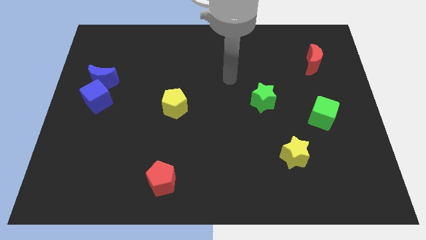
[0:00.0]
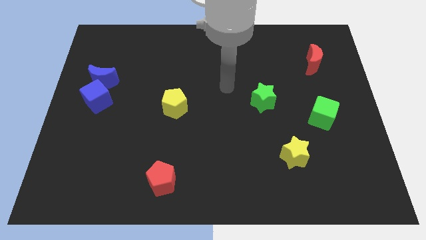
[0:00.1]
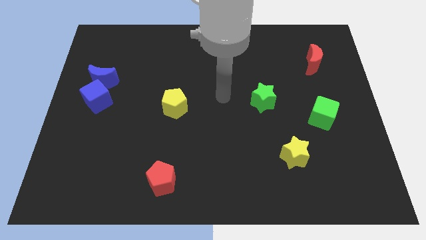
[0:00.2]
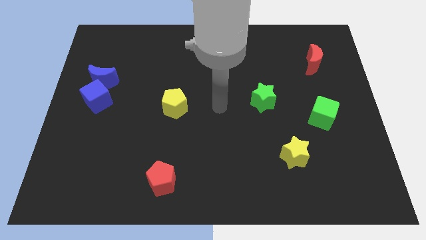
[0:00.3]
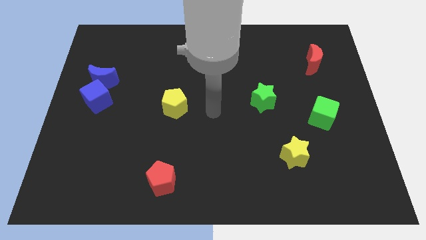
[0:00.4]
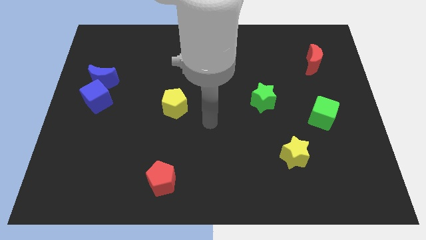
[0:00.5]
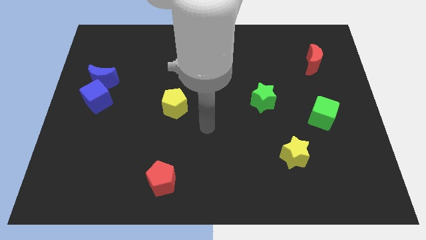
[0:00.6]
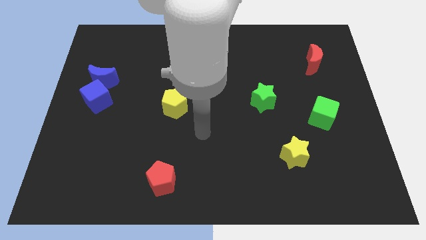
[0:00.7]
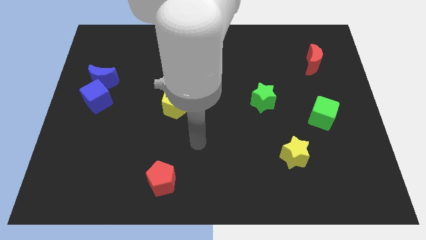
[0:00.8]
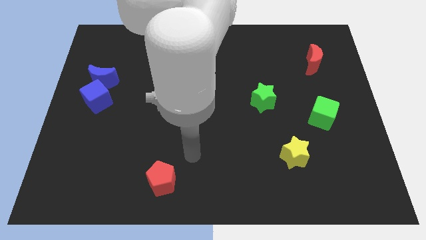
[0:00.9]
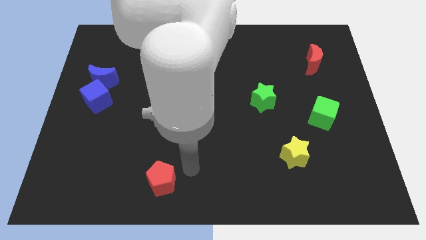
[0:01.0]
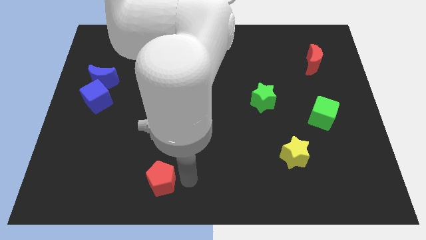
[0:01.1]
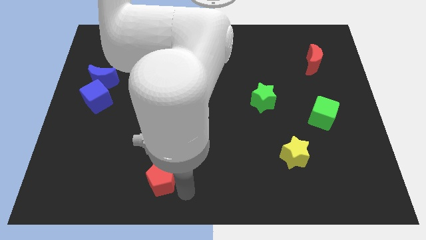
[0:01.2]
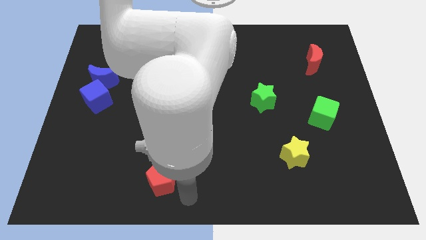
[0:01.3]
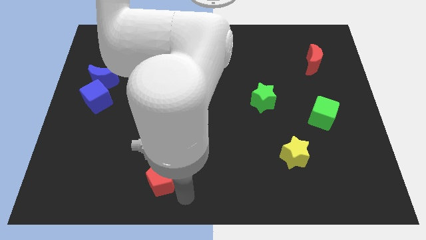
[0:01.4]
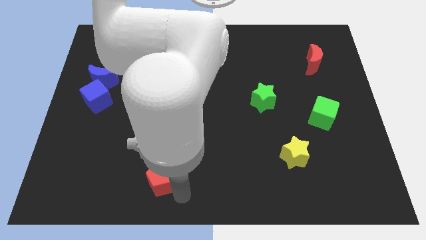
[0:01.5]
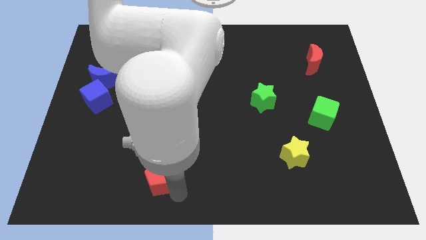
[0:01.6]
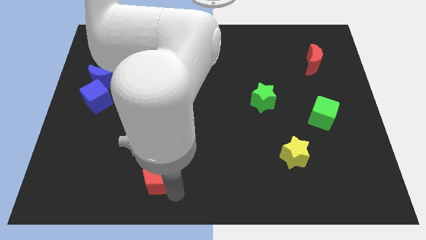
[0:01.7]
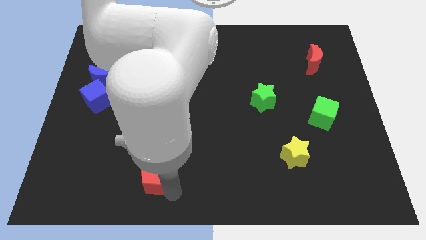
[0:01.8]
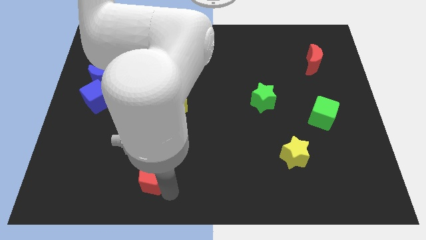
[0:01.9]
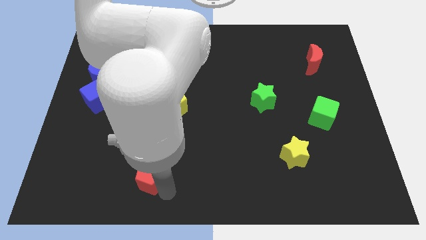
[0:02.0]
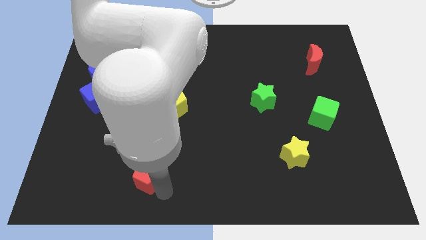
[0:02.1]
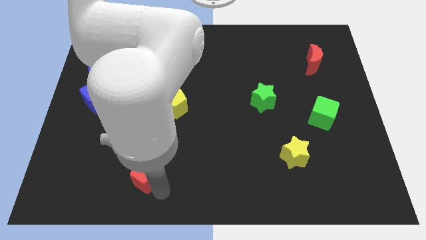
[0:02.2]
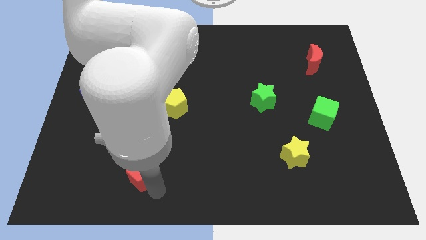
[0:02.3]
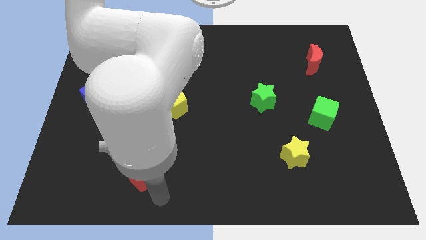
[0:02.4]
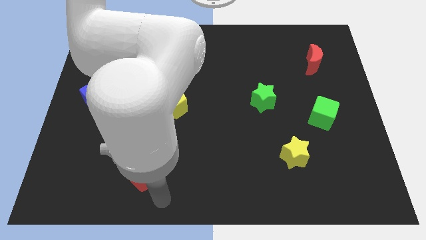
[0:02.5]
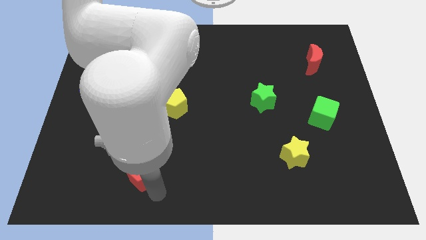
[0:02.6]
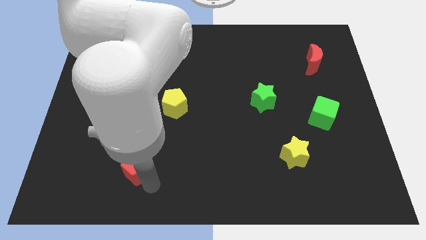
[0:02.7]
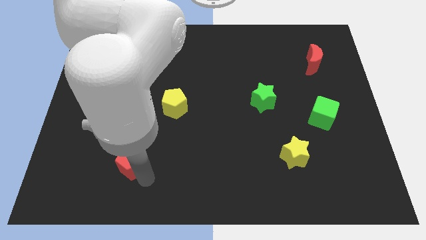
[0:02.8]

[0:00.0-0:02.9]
slide the red pentagon slightly upwards and then to the left

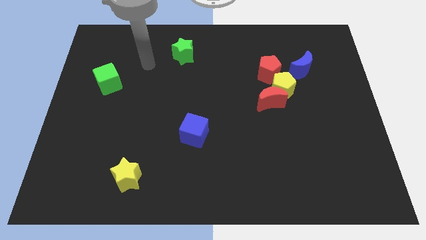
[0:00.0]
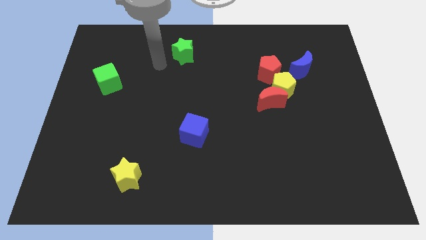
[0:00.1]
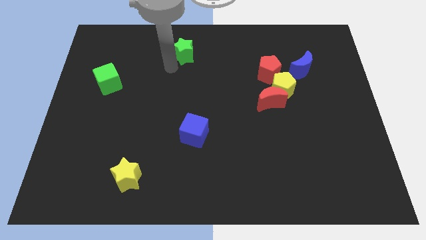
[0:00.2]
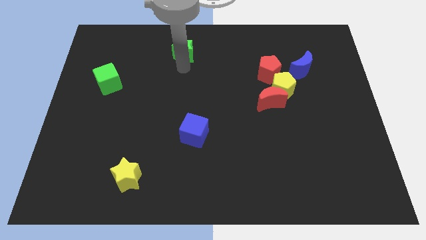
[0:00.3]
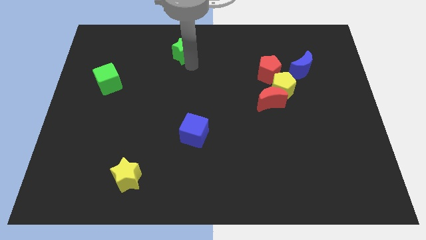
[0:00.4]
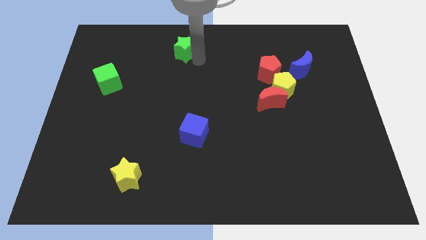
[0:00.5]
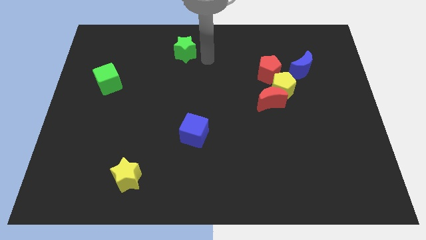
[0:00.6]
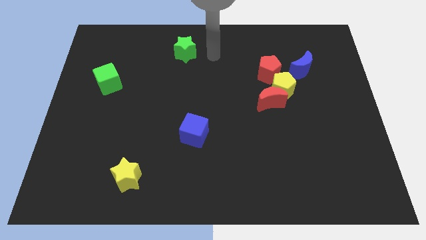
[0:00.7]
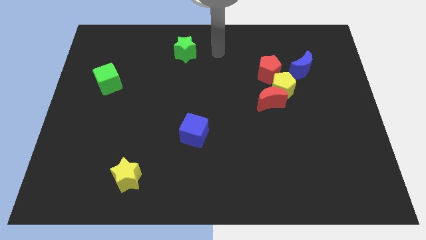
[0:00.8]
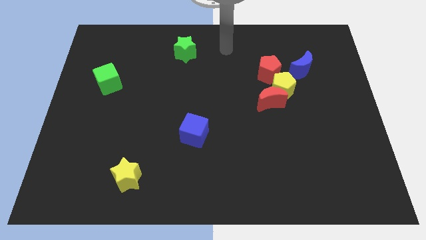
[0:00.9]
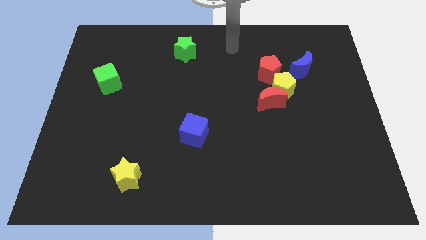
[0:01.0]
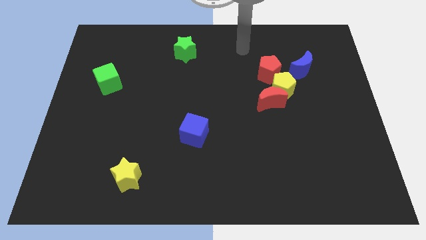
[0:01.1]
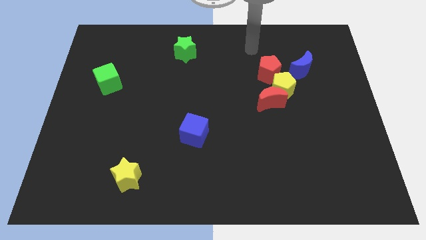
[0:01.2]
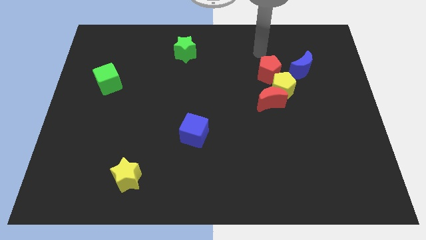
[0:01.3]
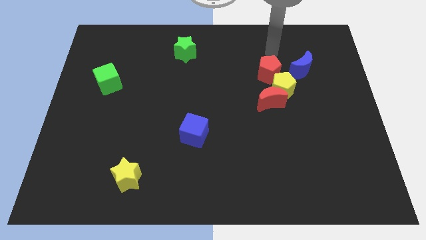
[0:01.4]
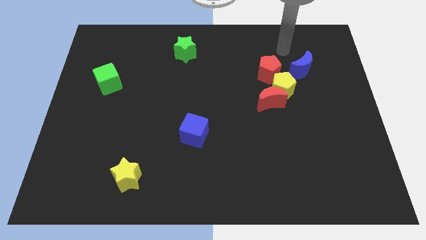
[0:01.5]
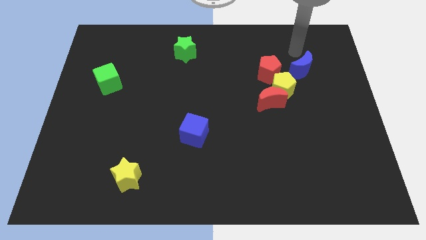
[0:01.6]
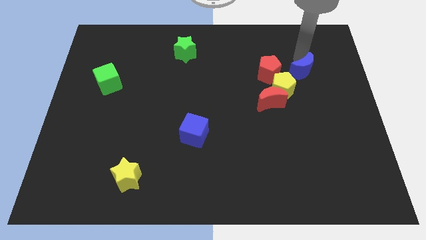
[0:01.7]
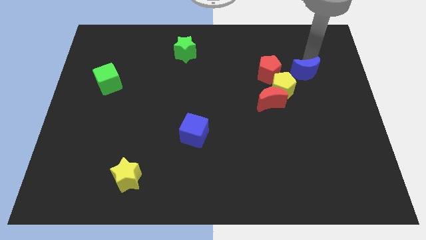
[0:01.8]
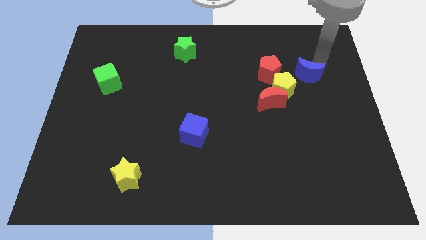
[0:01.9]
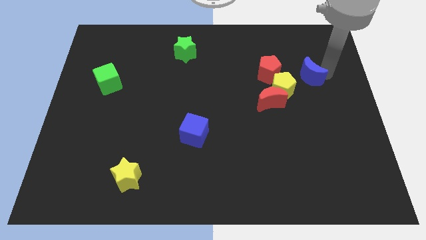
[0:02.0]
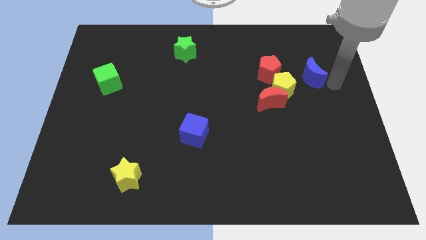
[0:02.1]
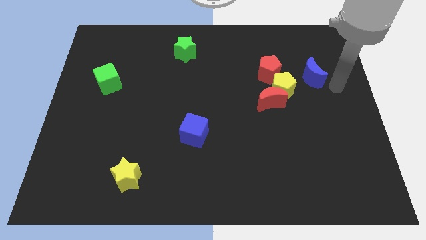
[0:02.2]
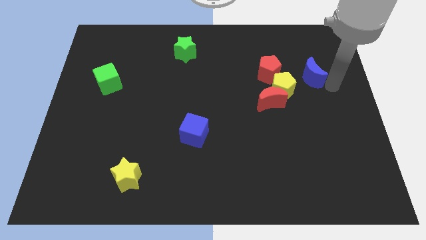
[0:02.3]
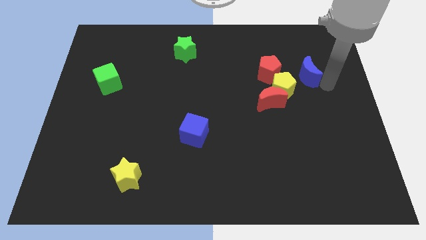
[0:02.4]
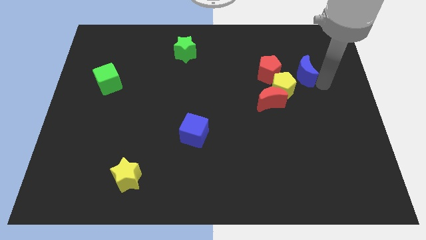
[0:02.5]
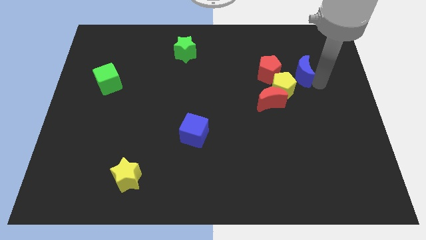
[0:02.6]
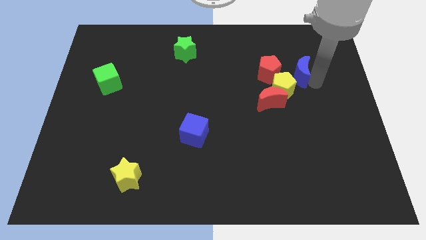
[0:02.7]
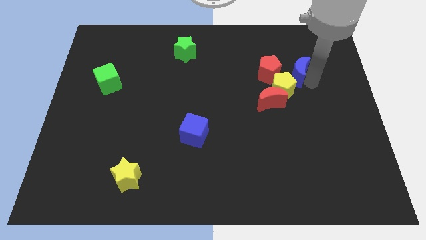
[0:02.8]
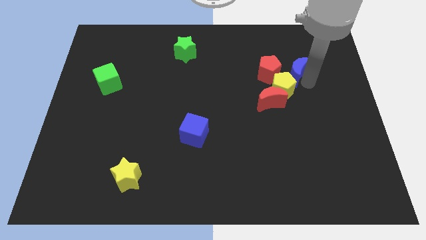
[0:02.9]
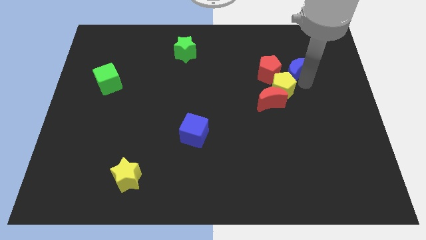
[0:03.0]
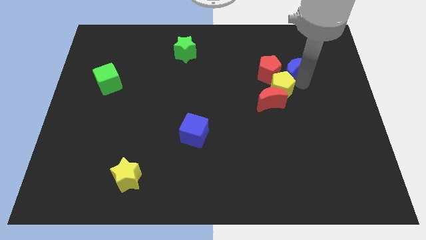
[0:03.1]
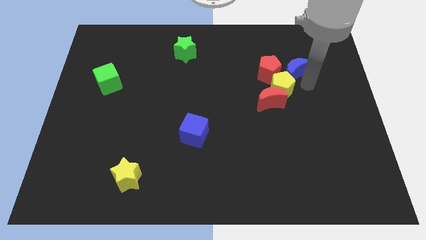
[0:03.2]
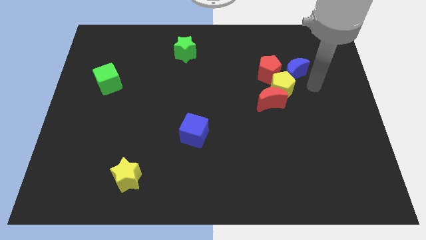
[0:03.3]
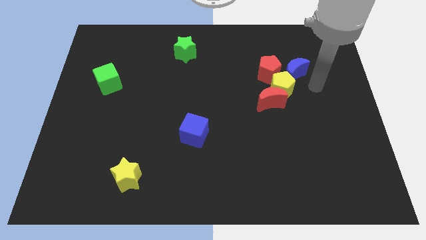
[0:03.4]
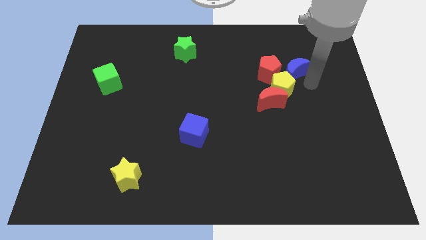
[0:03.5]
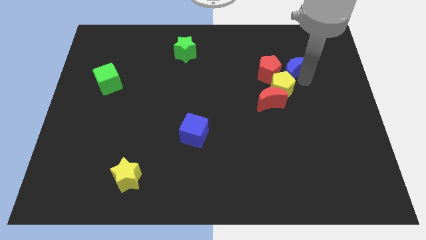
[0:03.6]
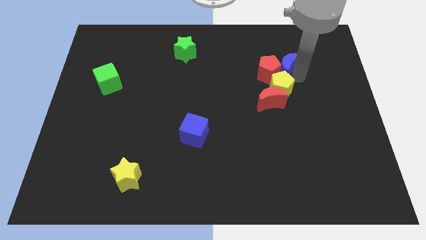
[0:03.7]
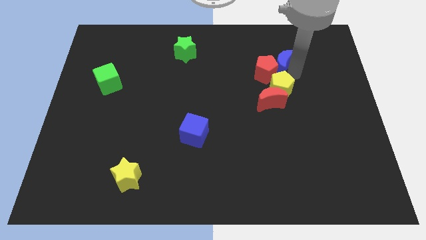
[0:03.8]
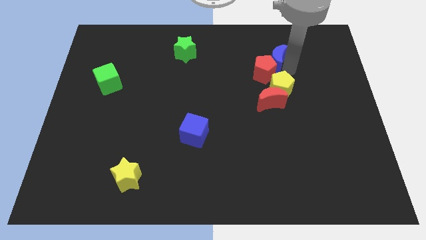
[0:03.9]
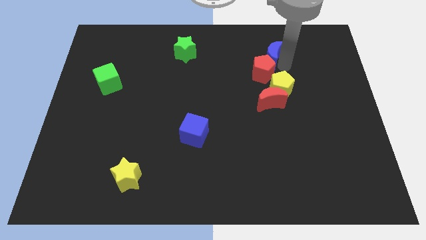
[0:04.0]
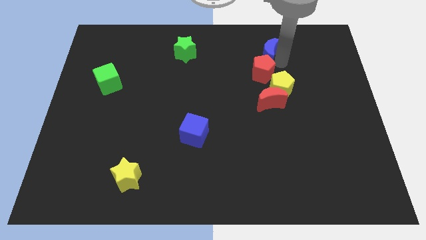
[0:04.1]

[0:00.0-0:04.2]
slightly move the blue moon left

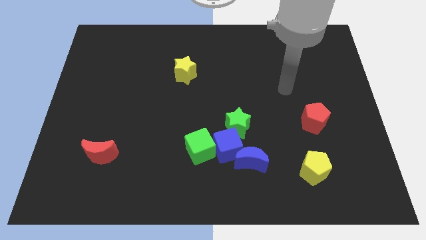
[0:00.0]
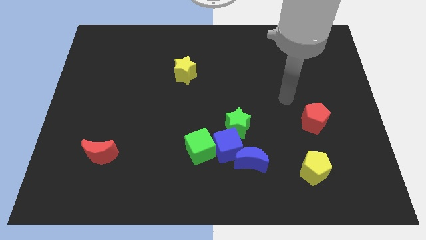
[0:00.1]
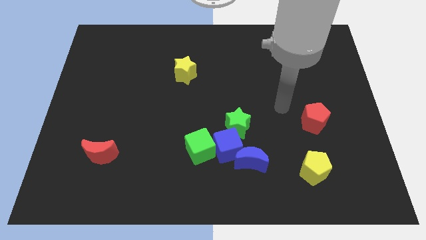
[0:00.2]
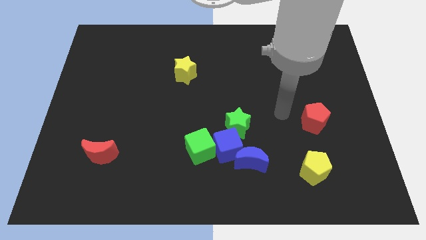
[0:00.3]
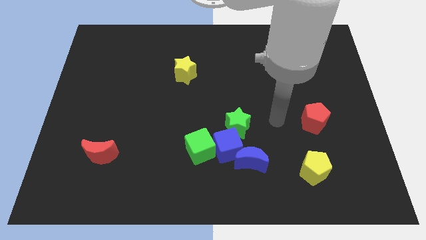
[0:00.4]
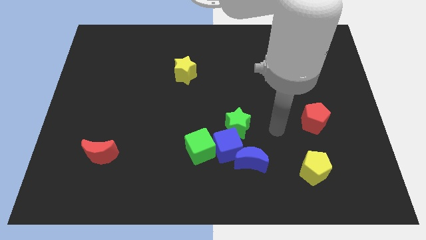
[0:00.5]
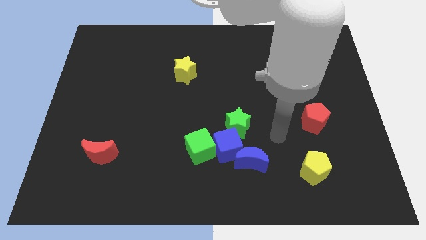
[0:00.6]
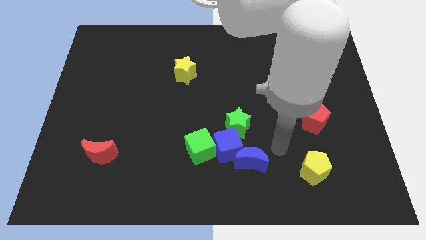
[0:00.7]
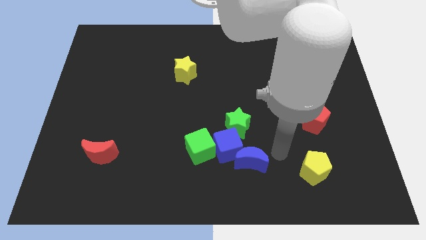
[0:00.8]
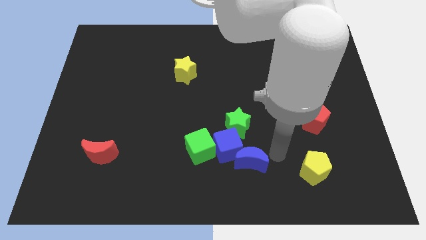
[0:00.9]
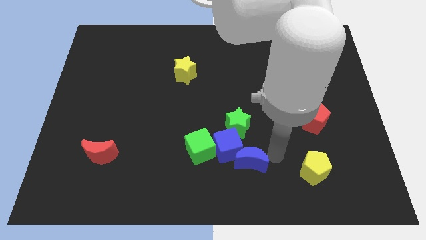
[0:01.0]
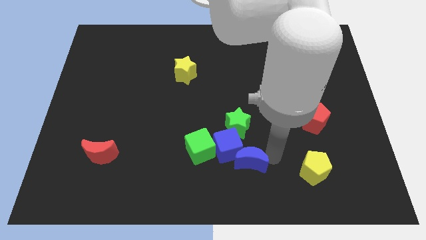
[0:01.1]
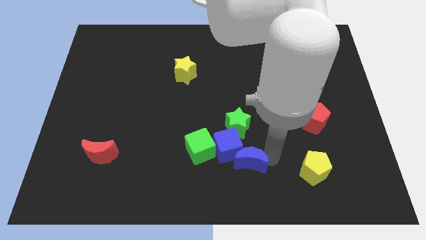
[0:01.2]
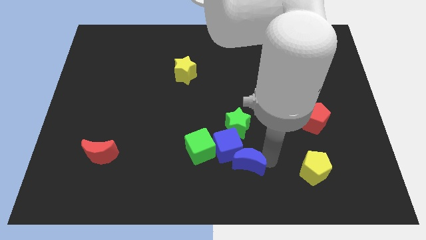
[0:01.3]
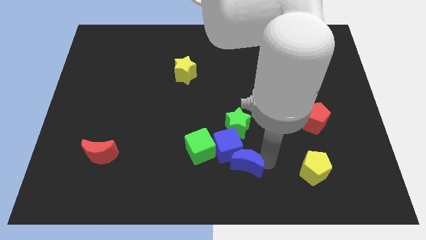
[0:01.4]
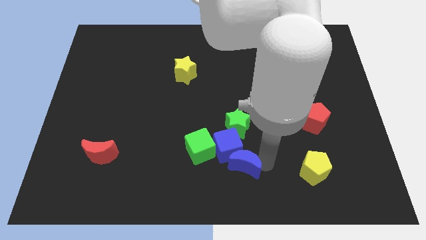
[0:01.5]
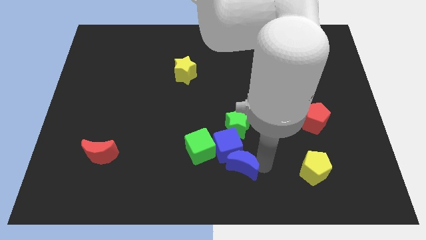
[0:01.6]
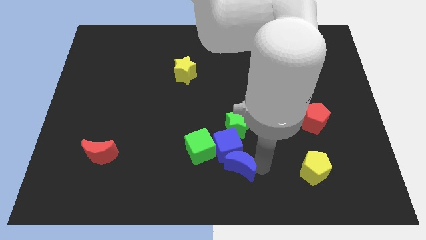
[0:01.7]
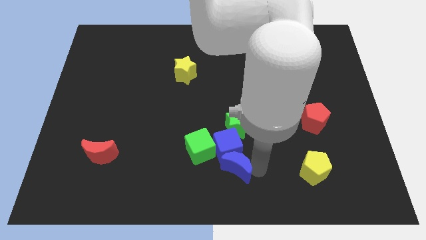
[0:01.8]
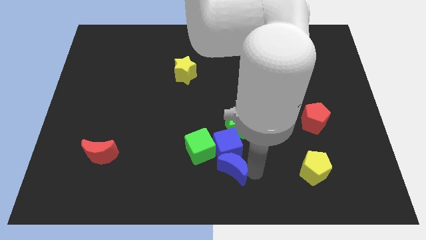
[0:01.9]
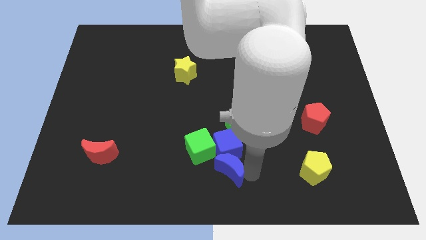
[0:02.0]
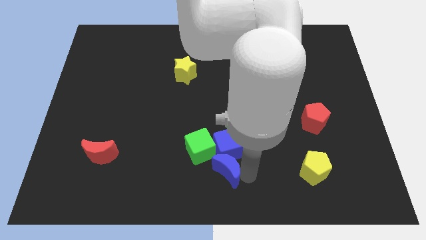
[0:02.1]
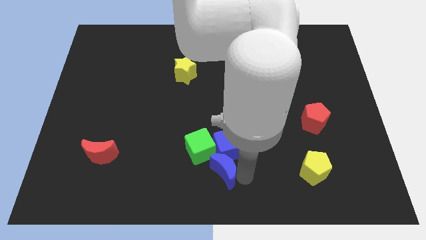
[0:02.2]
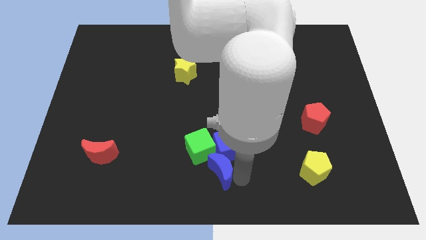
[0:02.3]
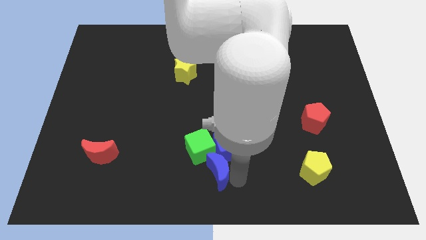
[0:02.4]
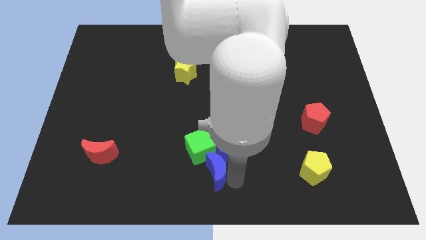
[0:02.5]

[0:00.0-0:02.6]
slightly push the blue moon left
